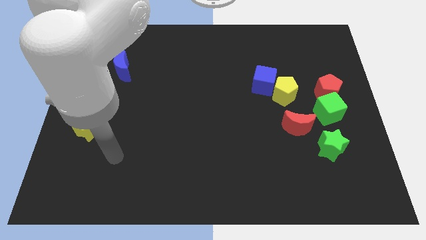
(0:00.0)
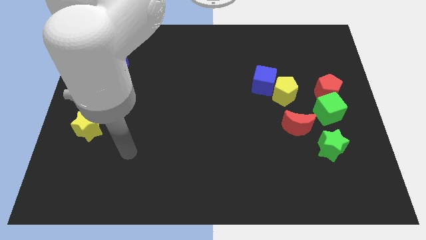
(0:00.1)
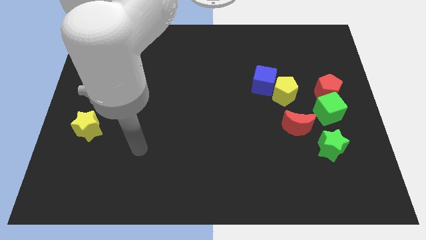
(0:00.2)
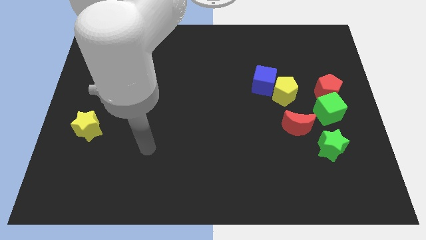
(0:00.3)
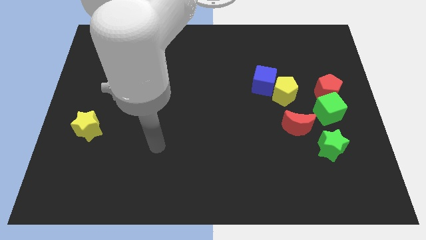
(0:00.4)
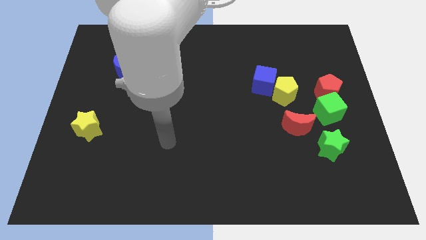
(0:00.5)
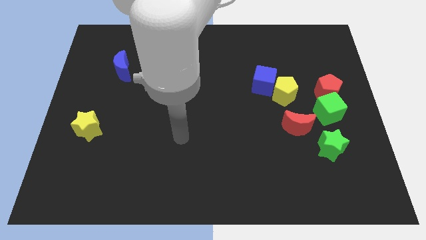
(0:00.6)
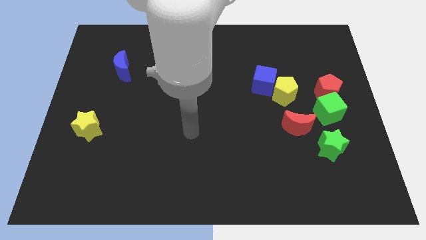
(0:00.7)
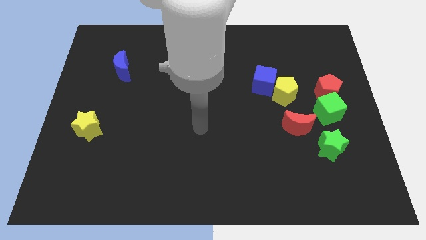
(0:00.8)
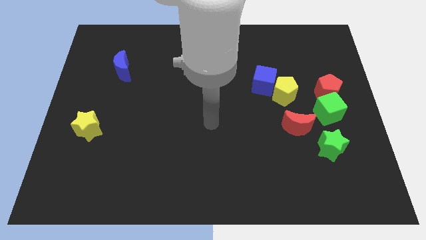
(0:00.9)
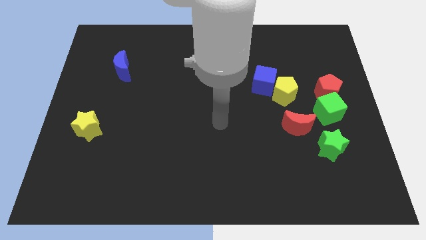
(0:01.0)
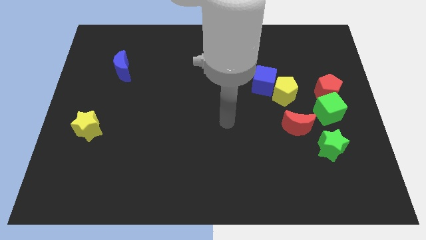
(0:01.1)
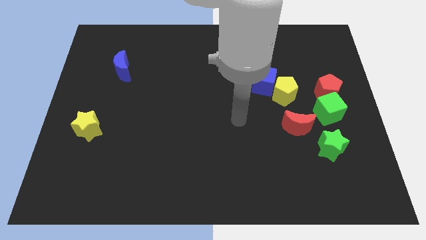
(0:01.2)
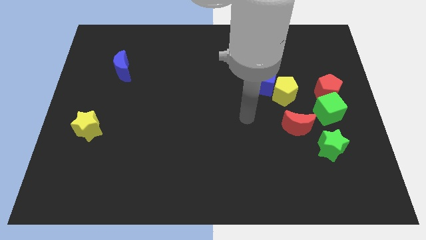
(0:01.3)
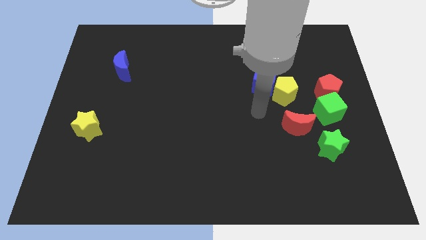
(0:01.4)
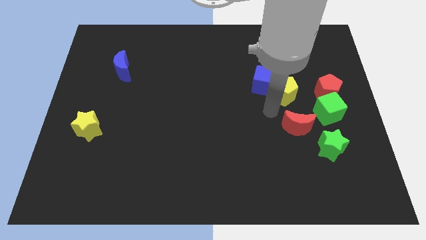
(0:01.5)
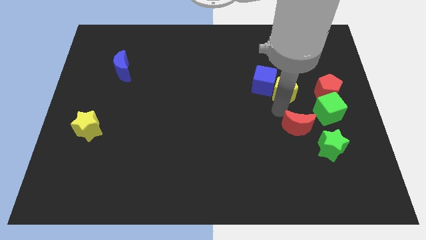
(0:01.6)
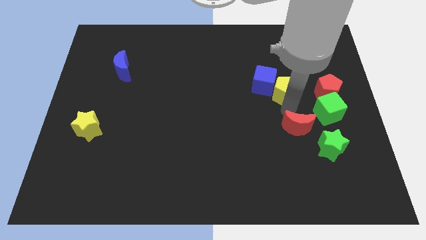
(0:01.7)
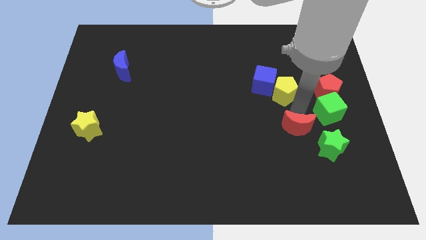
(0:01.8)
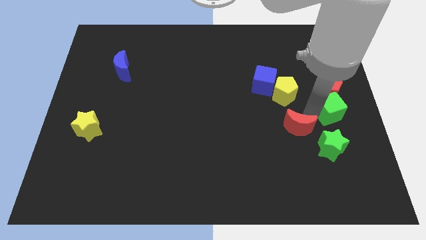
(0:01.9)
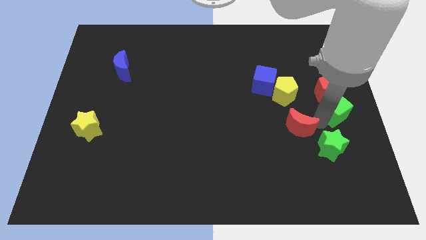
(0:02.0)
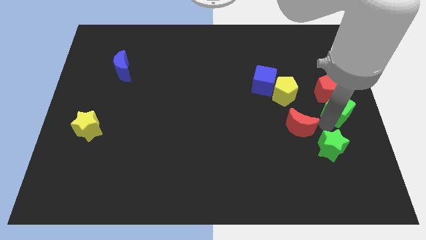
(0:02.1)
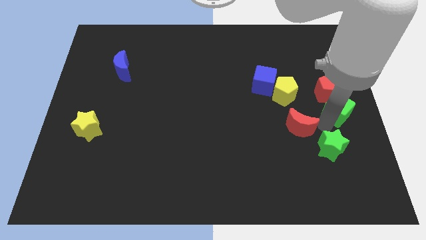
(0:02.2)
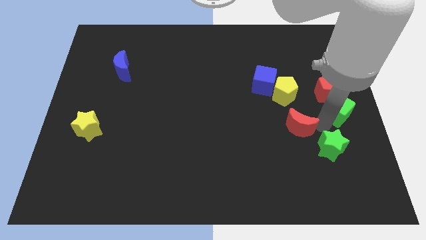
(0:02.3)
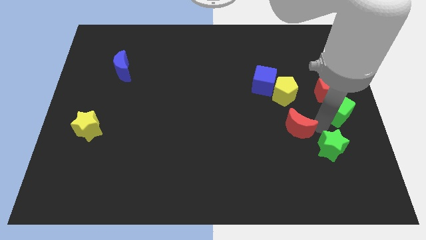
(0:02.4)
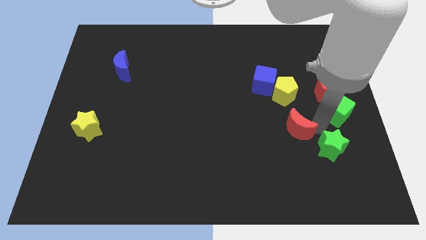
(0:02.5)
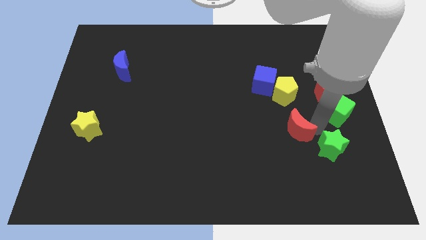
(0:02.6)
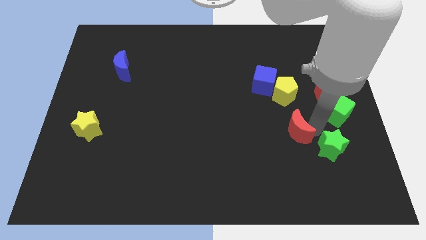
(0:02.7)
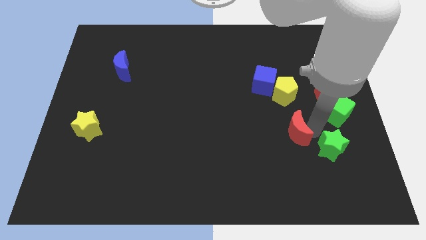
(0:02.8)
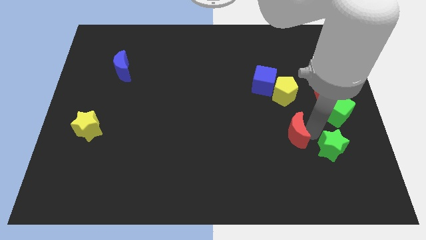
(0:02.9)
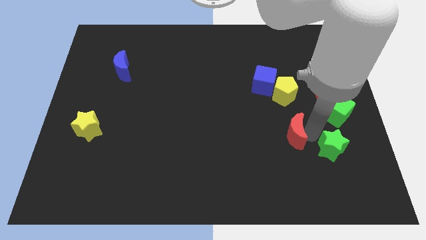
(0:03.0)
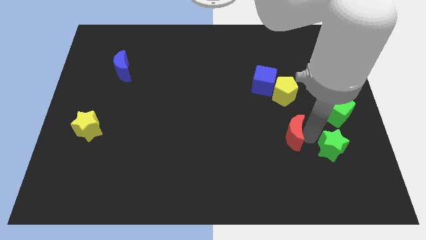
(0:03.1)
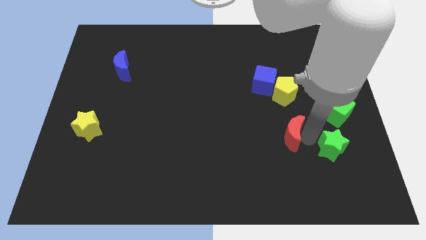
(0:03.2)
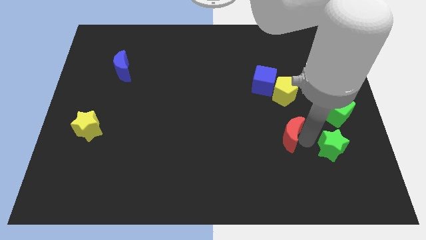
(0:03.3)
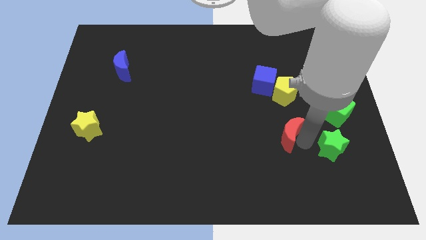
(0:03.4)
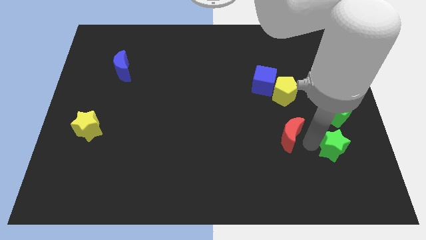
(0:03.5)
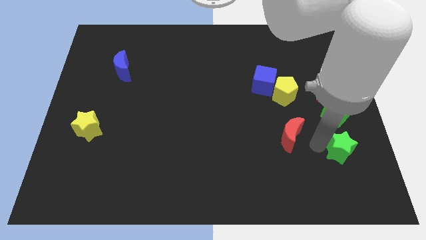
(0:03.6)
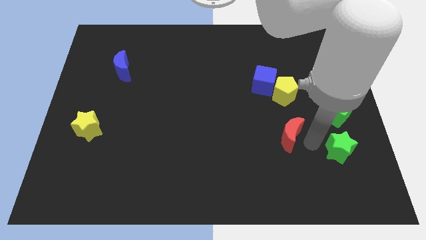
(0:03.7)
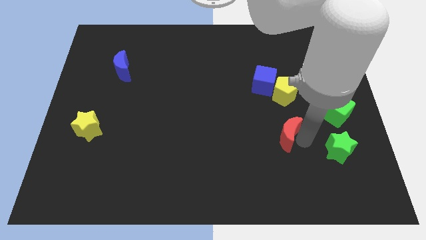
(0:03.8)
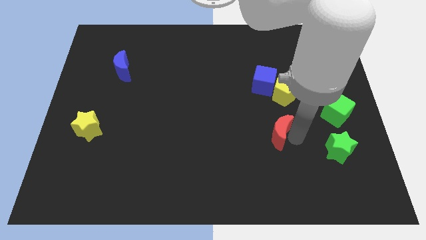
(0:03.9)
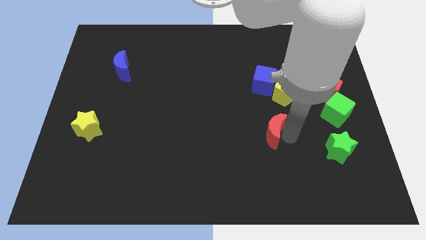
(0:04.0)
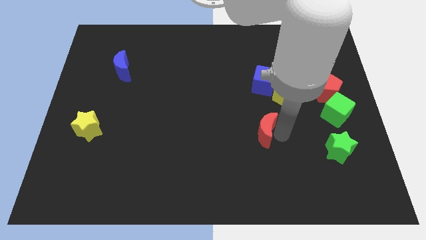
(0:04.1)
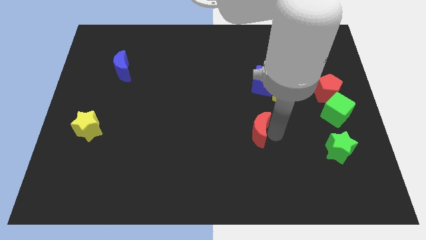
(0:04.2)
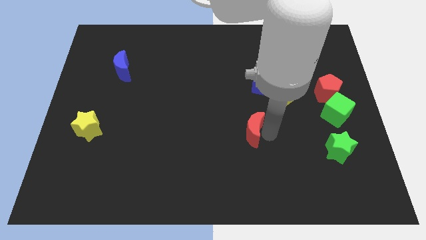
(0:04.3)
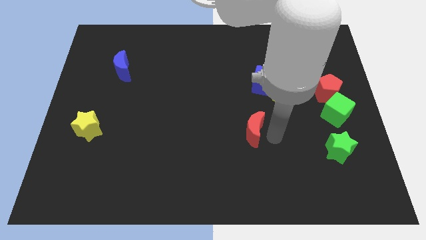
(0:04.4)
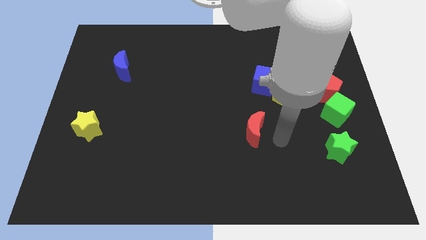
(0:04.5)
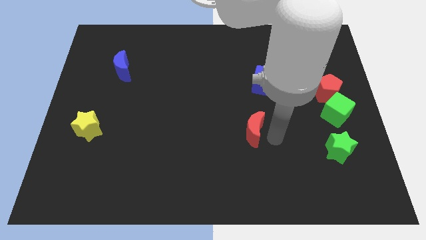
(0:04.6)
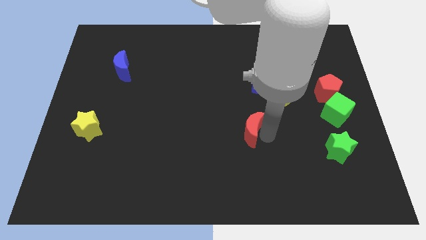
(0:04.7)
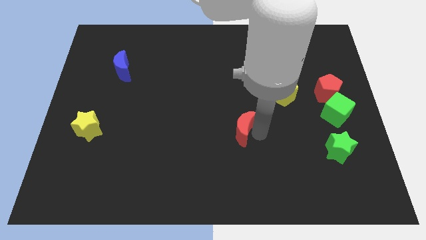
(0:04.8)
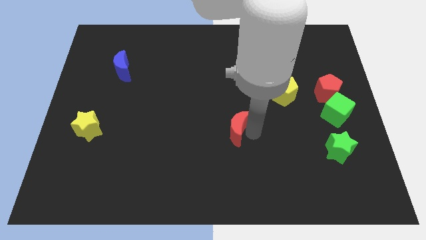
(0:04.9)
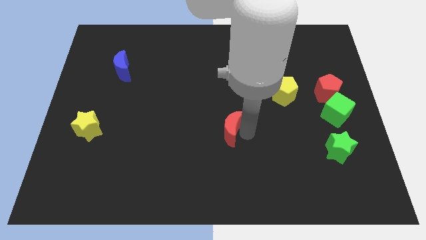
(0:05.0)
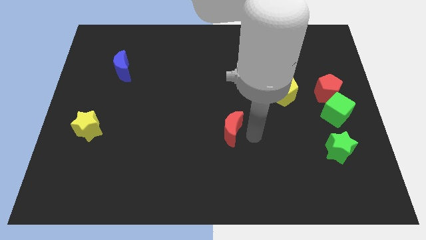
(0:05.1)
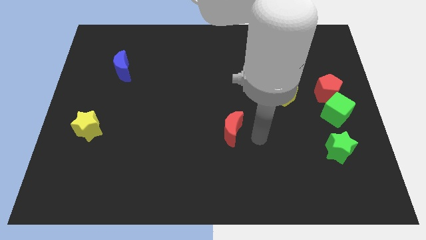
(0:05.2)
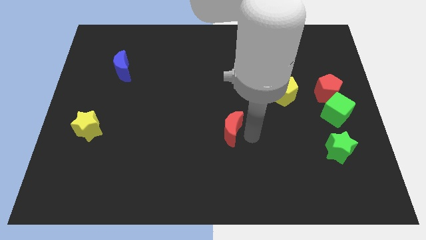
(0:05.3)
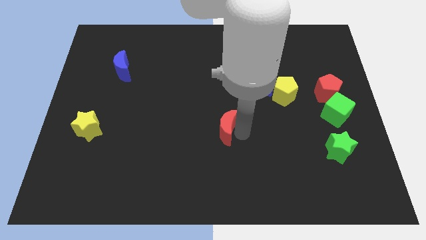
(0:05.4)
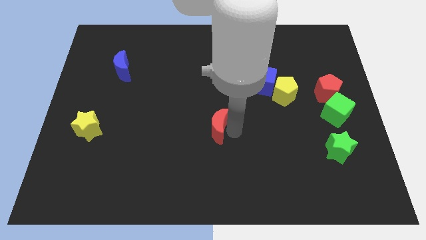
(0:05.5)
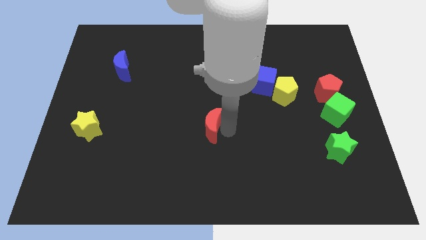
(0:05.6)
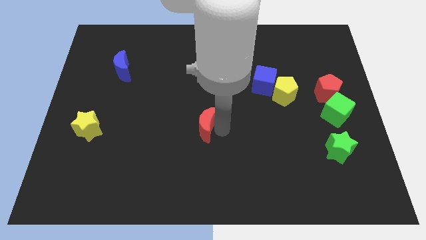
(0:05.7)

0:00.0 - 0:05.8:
slide the red moon to the left

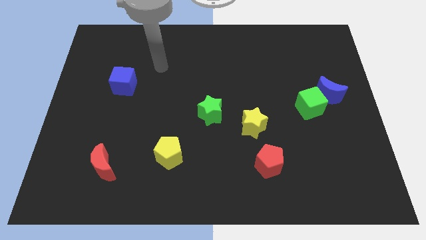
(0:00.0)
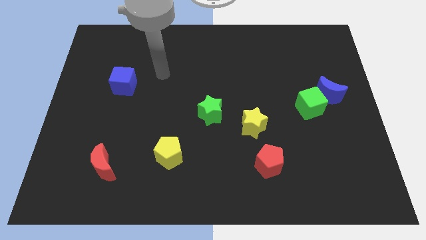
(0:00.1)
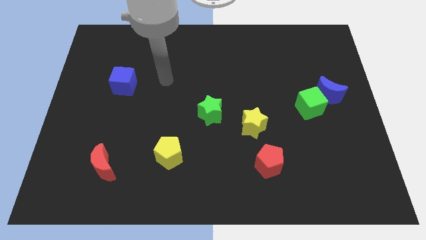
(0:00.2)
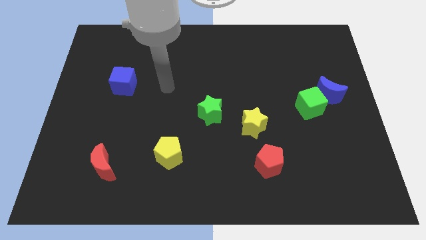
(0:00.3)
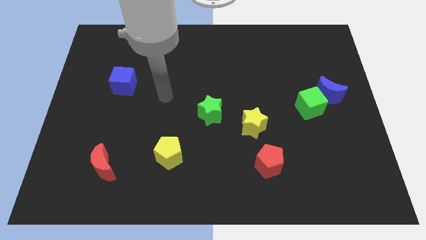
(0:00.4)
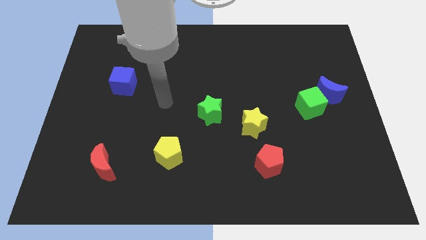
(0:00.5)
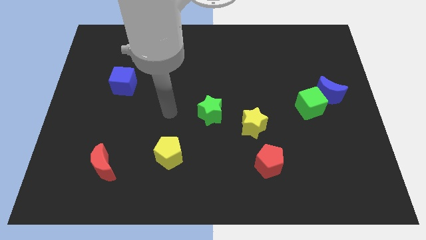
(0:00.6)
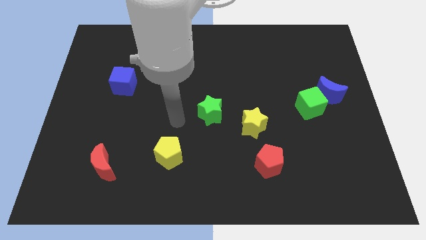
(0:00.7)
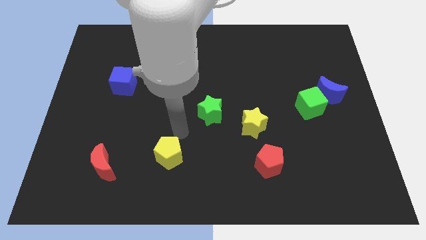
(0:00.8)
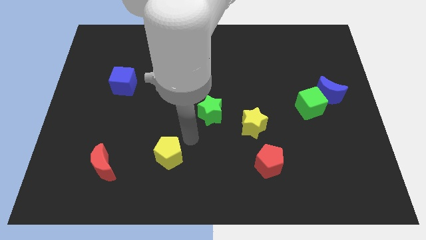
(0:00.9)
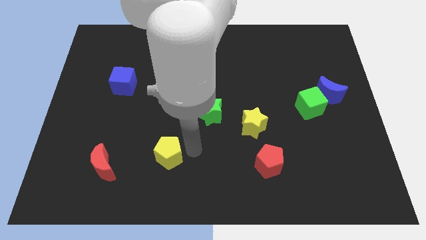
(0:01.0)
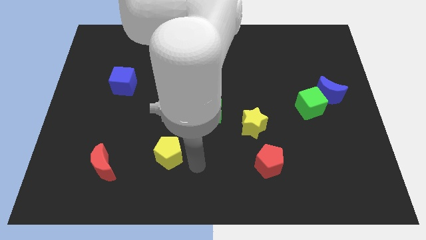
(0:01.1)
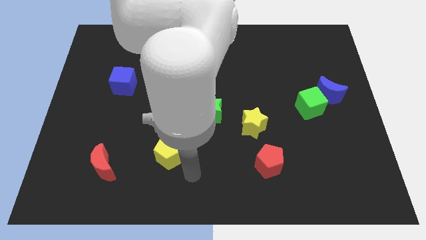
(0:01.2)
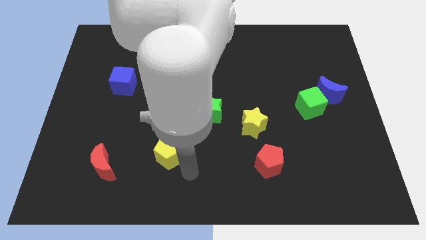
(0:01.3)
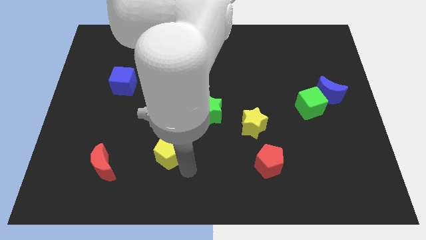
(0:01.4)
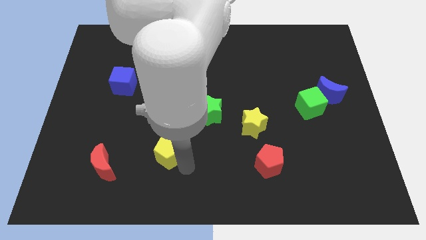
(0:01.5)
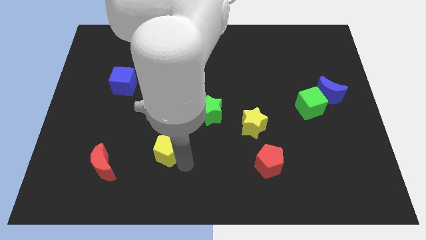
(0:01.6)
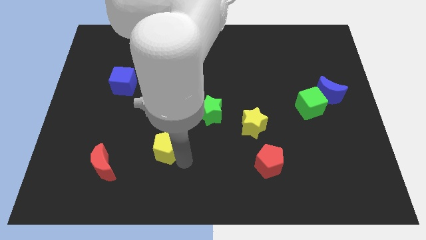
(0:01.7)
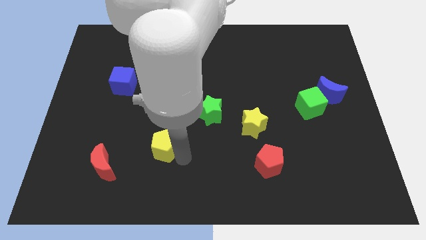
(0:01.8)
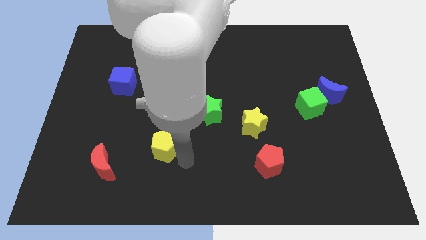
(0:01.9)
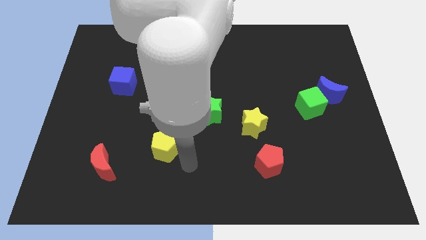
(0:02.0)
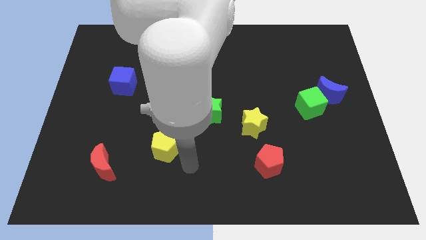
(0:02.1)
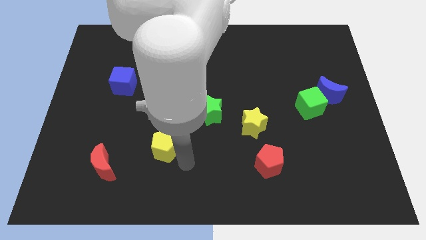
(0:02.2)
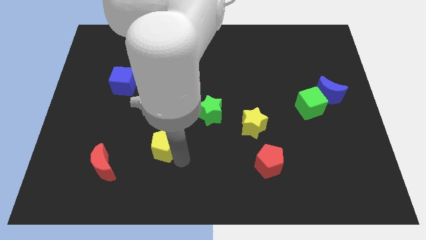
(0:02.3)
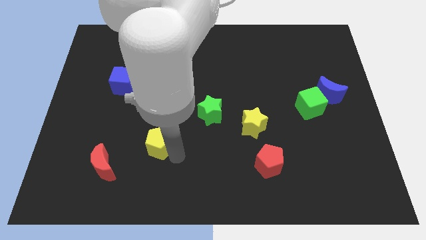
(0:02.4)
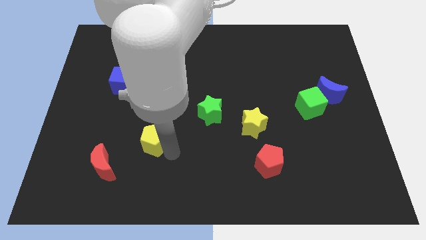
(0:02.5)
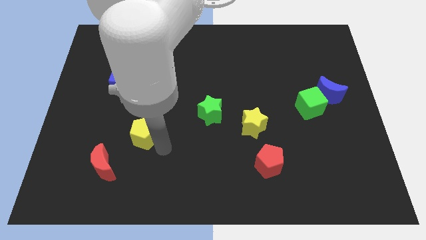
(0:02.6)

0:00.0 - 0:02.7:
slightly move the yellow pentagon diagonally up and to the left
